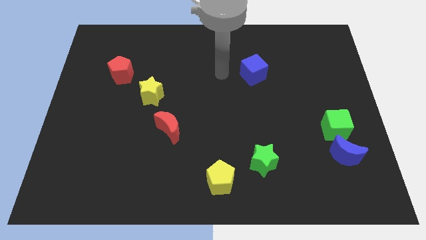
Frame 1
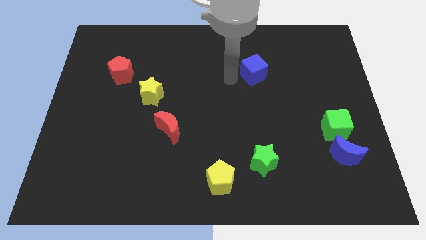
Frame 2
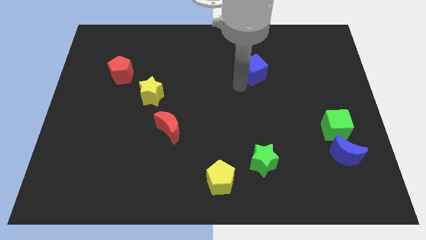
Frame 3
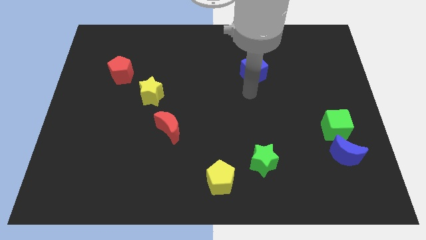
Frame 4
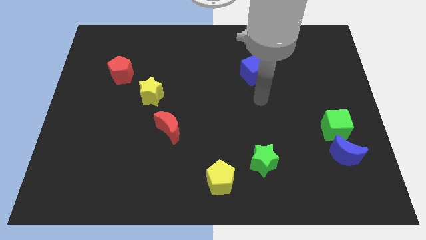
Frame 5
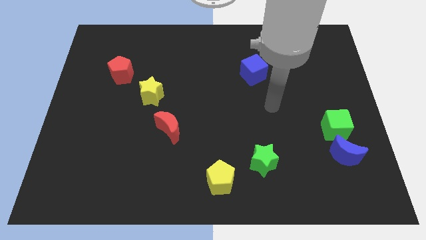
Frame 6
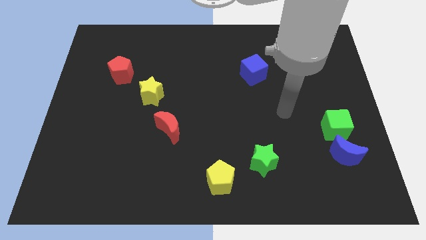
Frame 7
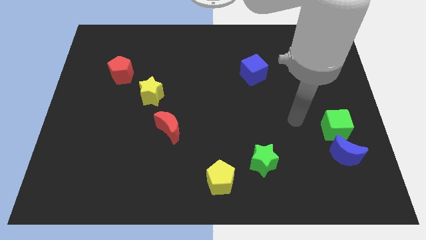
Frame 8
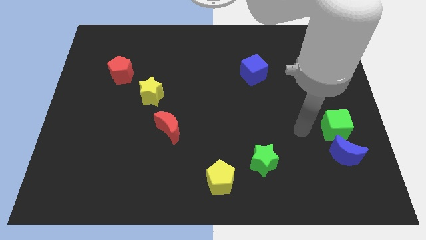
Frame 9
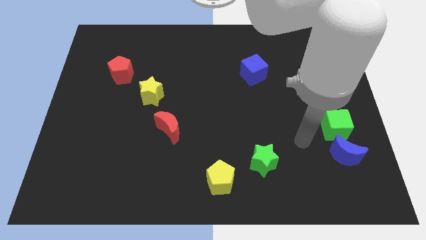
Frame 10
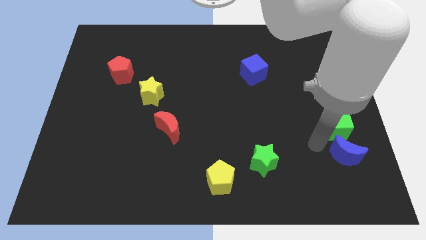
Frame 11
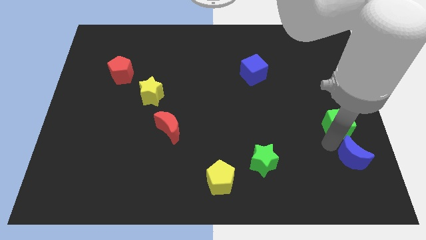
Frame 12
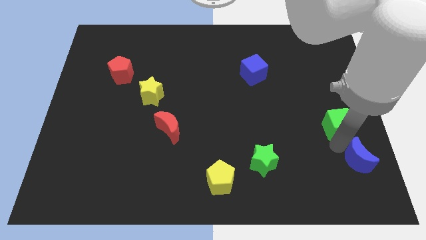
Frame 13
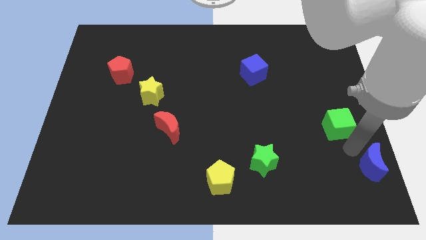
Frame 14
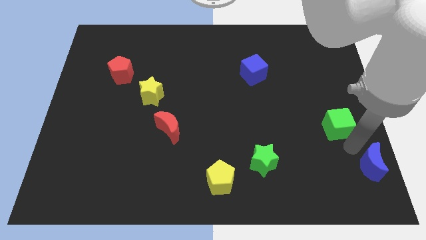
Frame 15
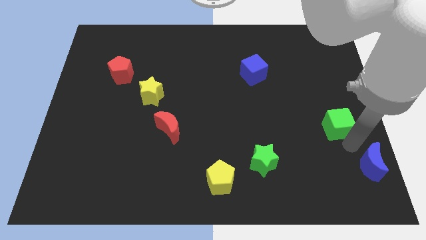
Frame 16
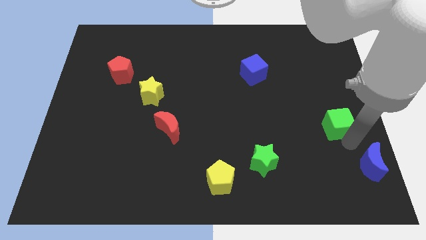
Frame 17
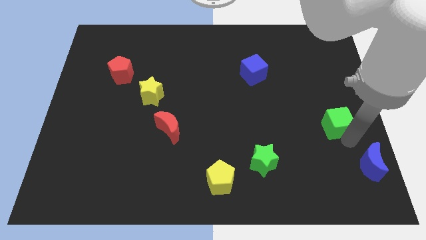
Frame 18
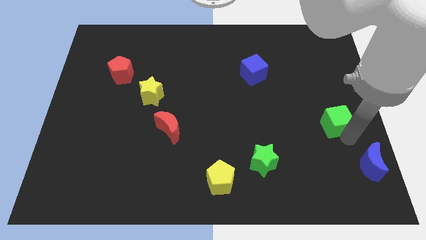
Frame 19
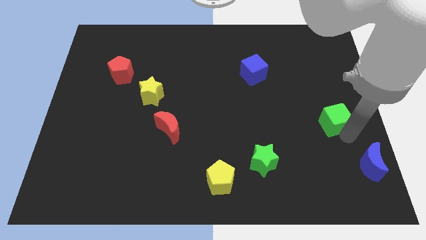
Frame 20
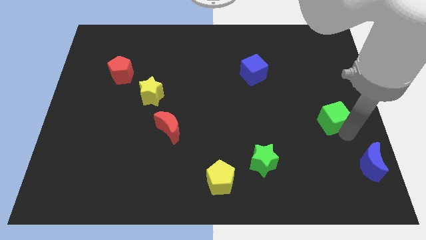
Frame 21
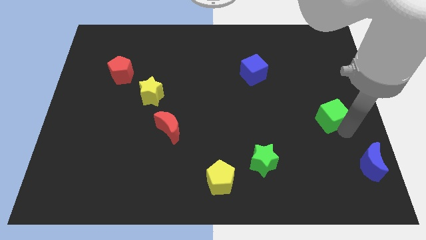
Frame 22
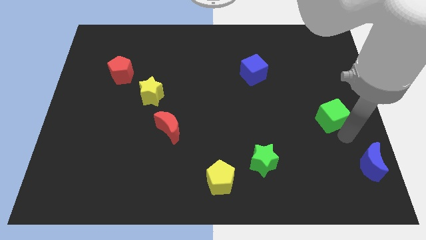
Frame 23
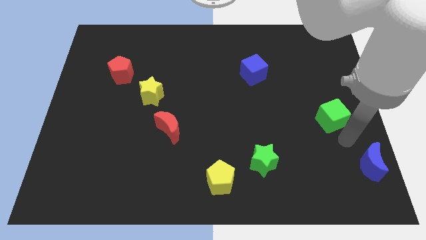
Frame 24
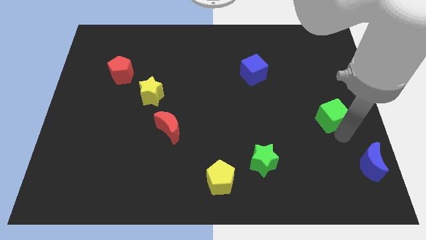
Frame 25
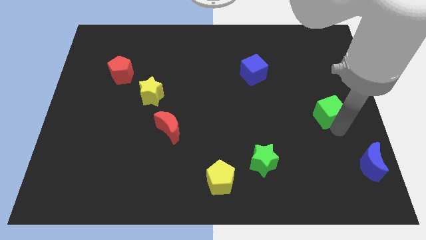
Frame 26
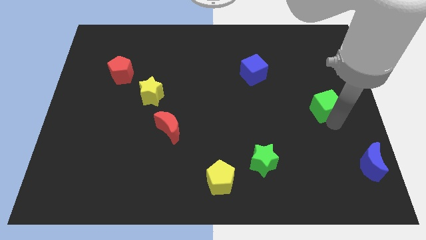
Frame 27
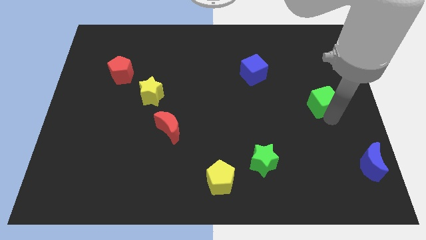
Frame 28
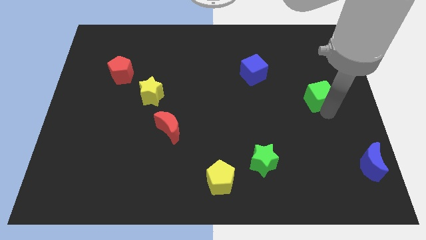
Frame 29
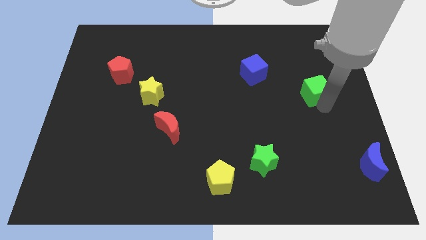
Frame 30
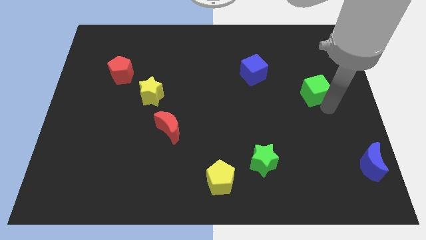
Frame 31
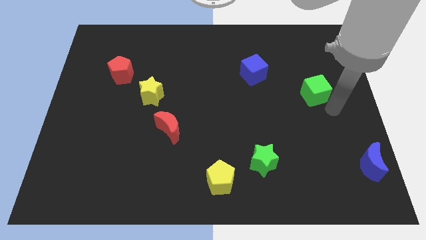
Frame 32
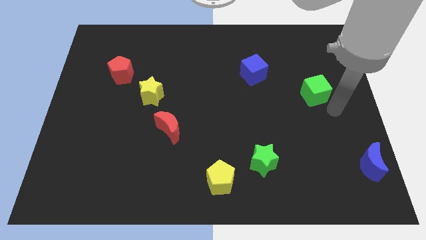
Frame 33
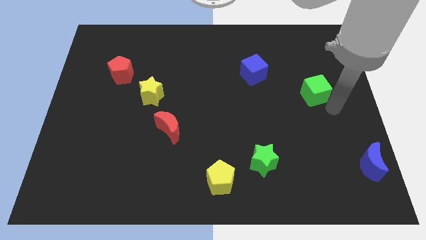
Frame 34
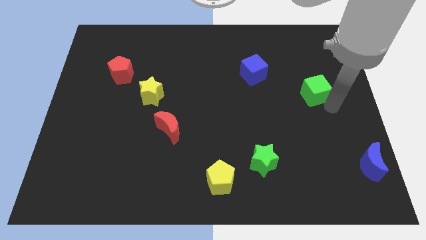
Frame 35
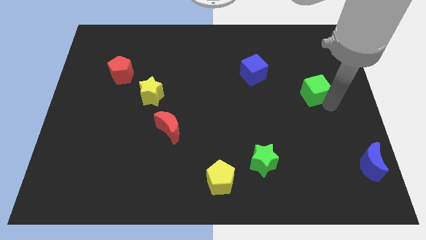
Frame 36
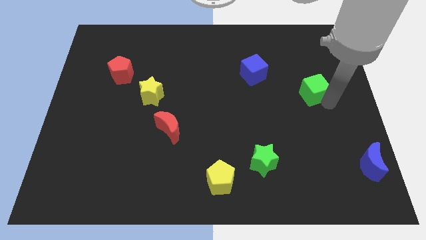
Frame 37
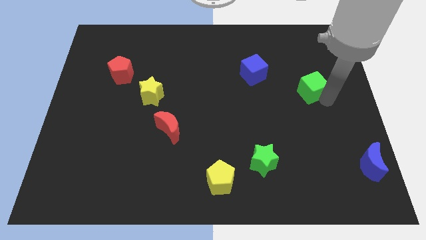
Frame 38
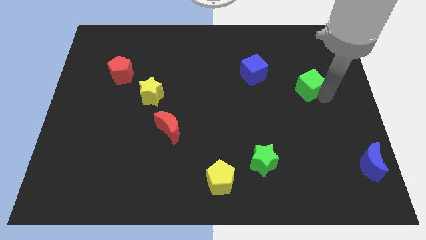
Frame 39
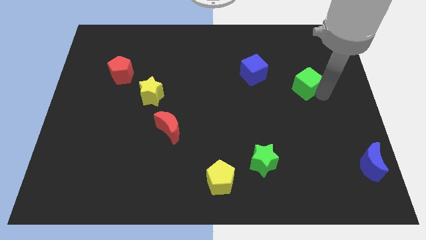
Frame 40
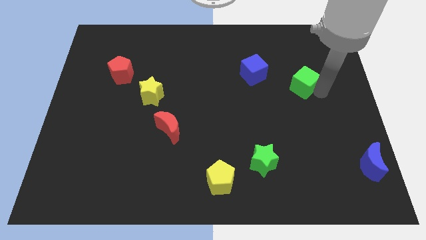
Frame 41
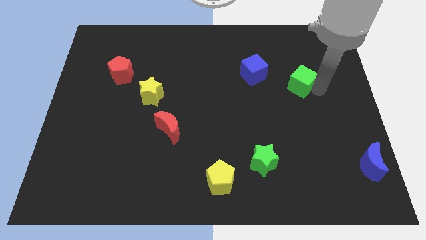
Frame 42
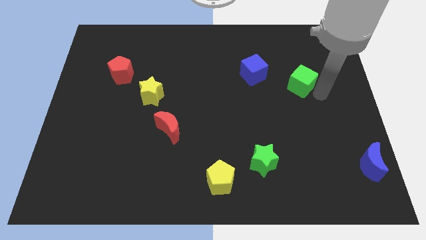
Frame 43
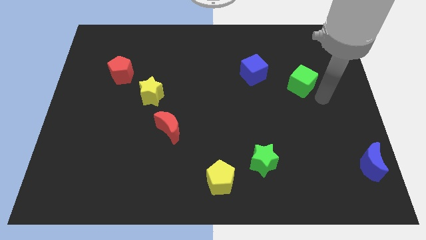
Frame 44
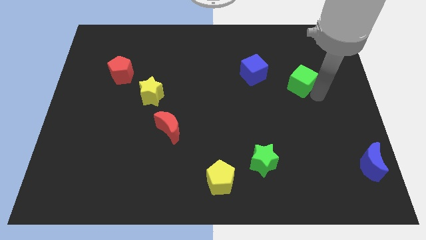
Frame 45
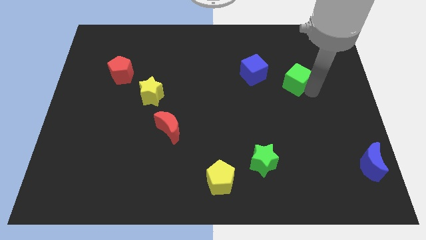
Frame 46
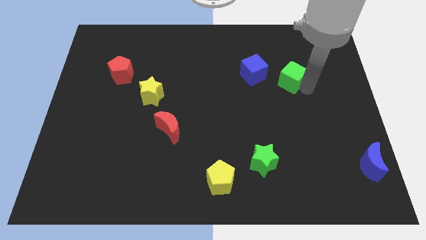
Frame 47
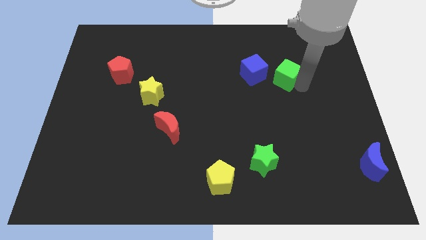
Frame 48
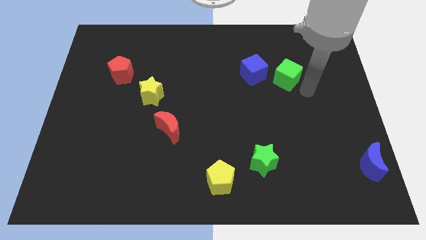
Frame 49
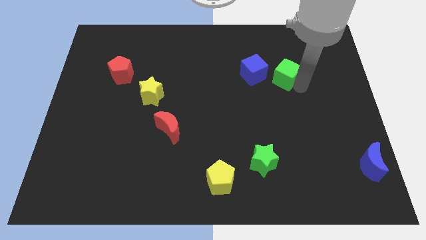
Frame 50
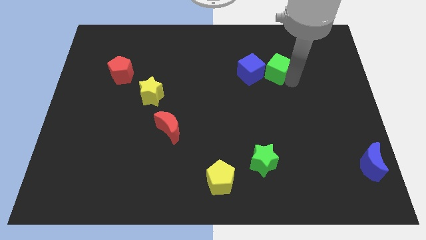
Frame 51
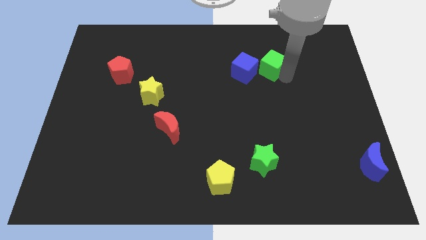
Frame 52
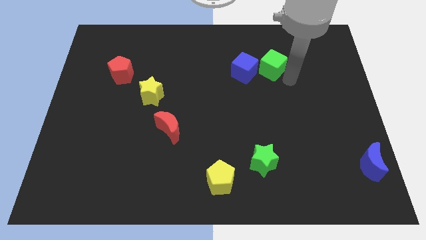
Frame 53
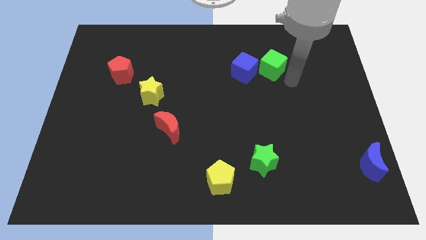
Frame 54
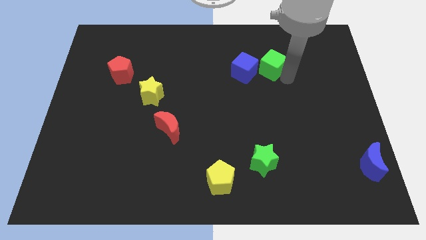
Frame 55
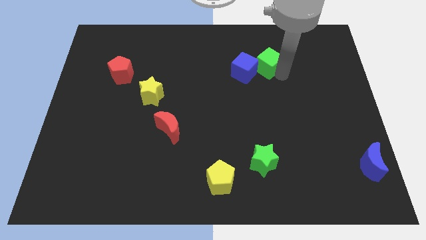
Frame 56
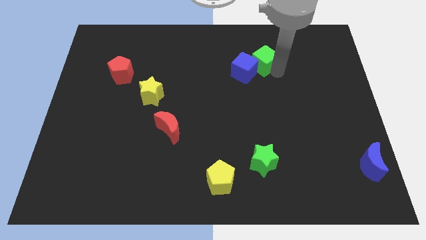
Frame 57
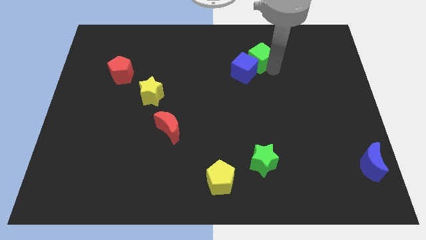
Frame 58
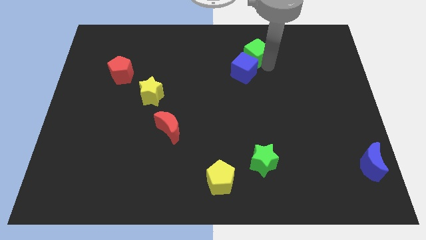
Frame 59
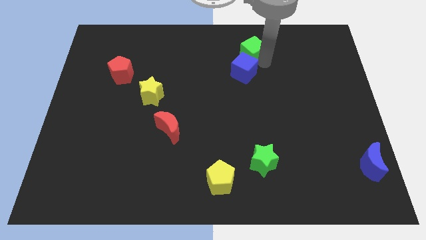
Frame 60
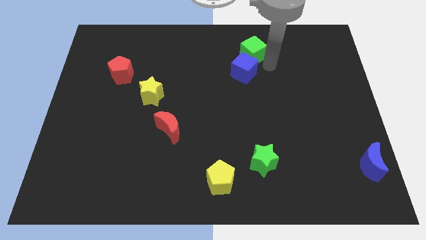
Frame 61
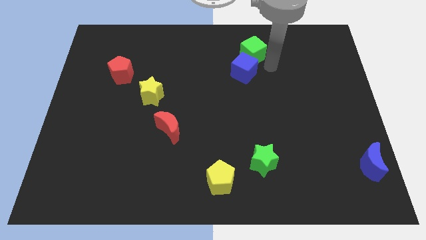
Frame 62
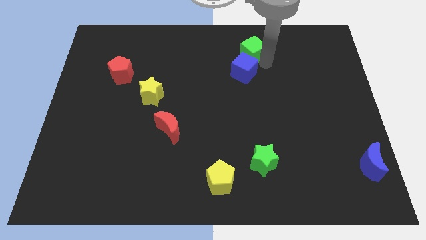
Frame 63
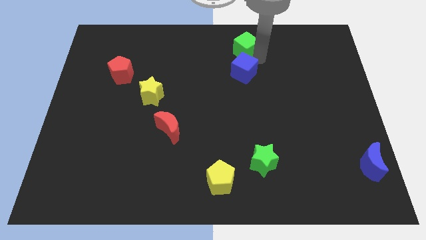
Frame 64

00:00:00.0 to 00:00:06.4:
move the green cube to the top side
